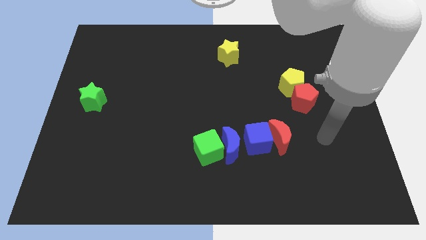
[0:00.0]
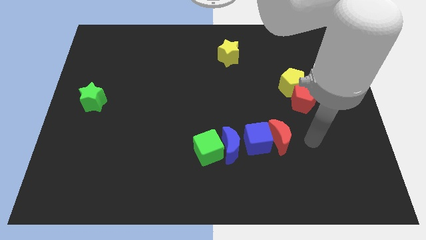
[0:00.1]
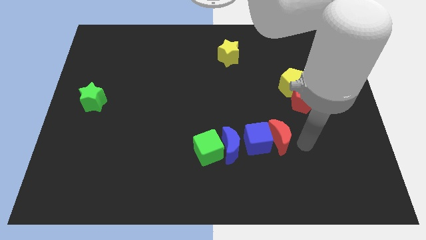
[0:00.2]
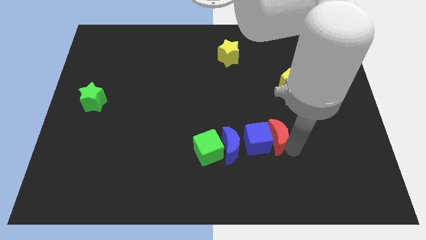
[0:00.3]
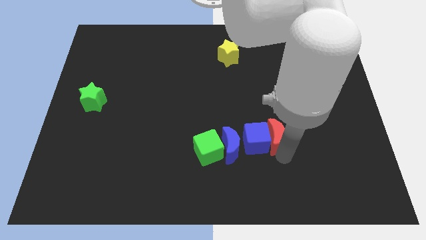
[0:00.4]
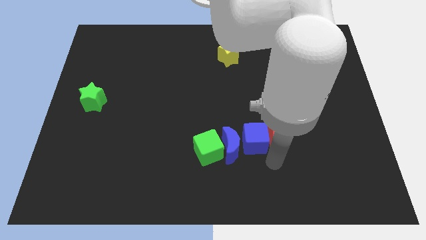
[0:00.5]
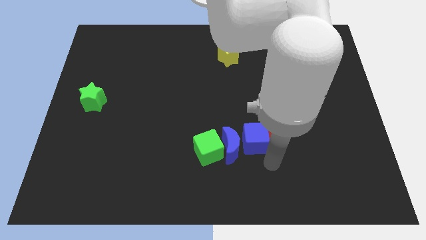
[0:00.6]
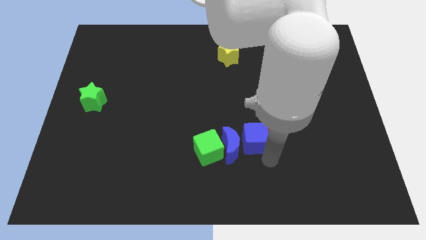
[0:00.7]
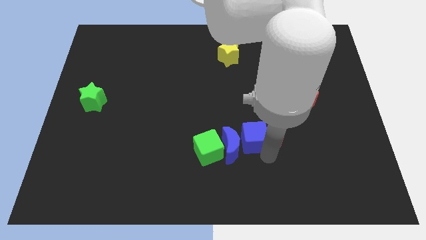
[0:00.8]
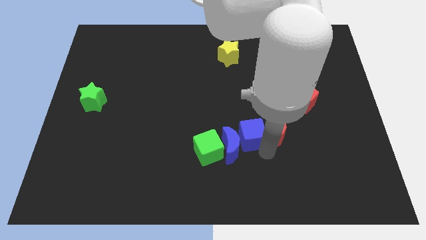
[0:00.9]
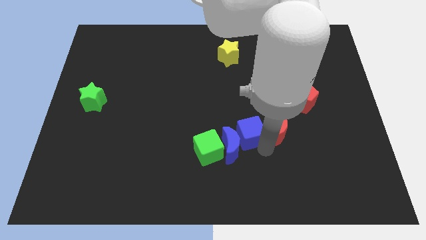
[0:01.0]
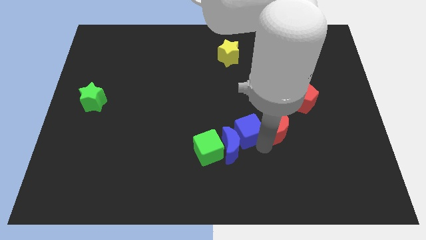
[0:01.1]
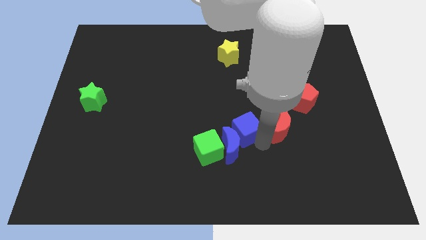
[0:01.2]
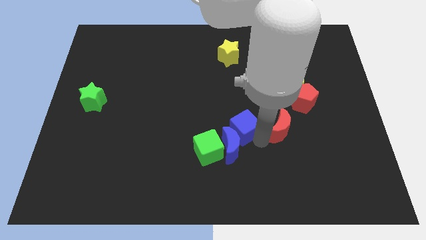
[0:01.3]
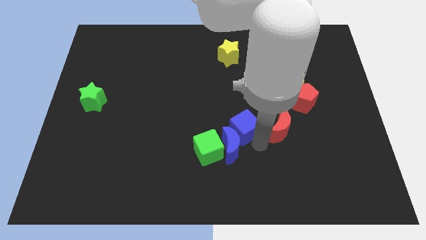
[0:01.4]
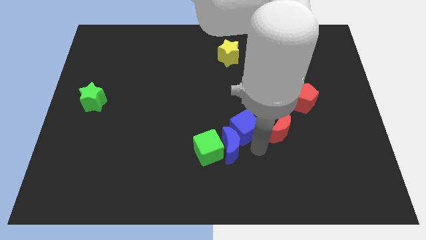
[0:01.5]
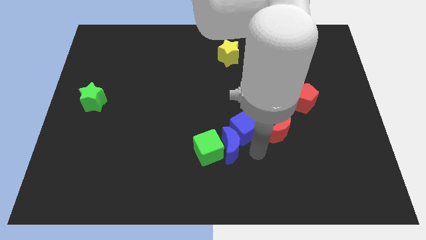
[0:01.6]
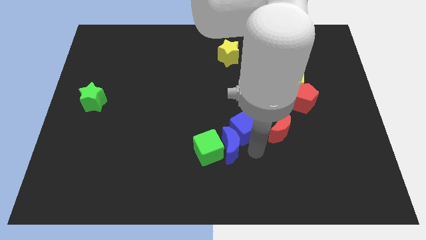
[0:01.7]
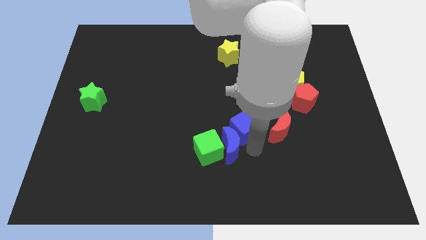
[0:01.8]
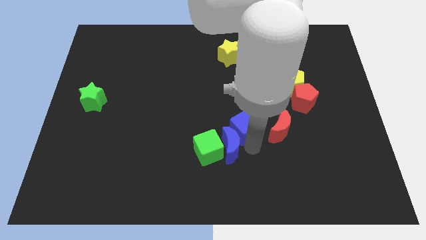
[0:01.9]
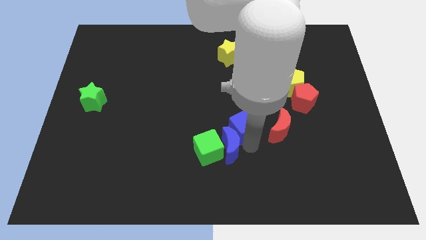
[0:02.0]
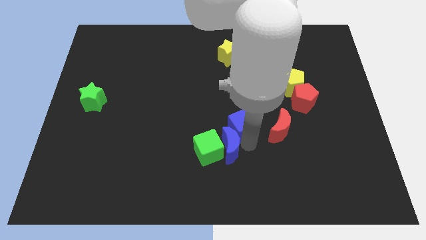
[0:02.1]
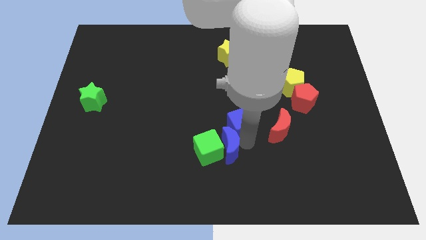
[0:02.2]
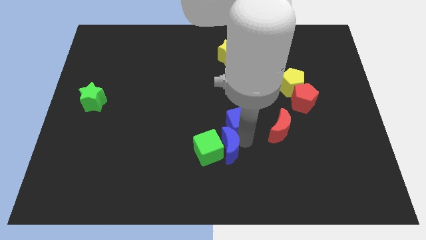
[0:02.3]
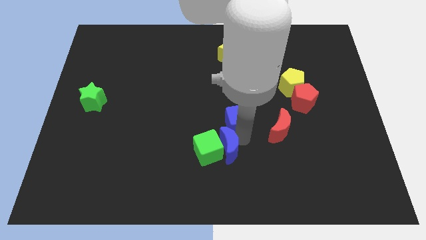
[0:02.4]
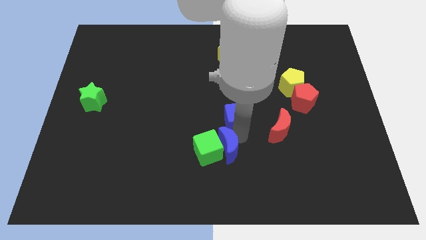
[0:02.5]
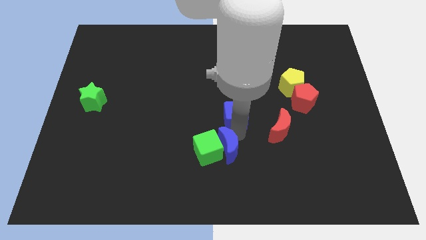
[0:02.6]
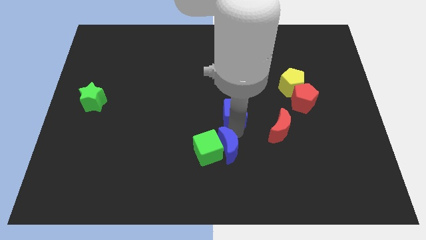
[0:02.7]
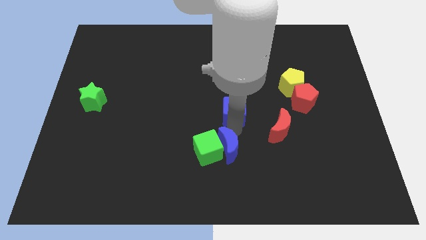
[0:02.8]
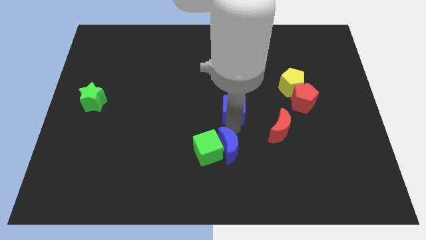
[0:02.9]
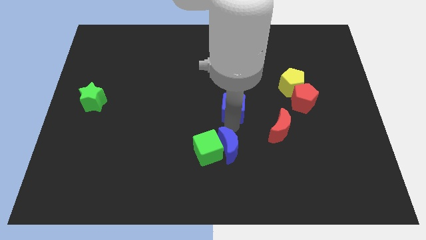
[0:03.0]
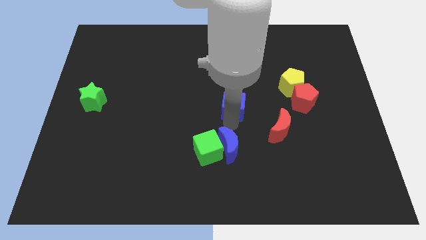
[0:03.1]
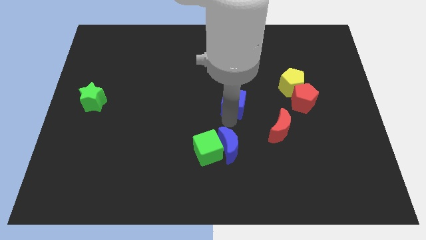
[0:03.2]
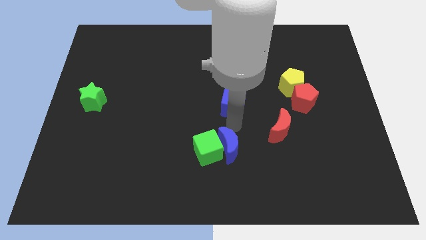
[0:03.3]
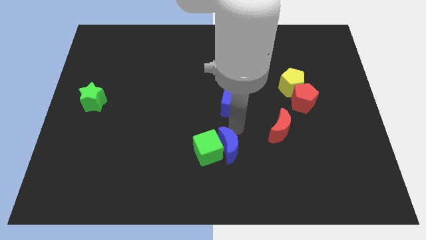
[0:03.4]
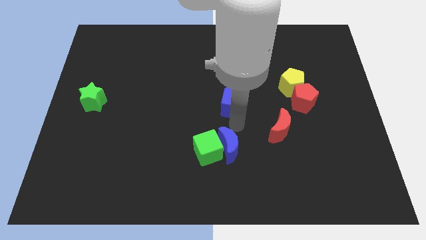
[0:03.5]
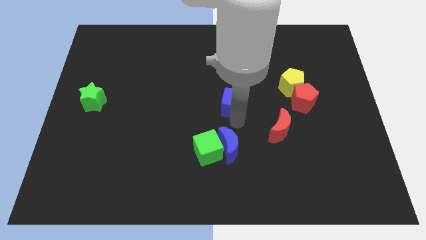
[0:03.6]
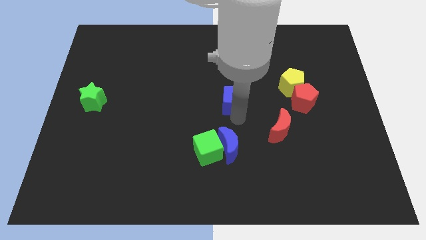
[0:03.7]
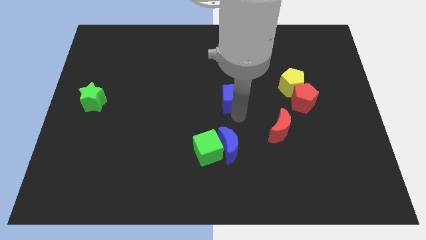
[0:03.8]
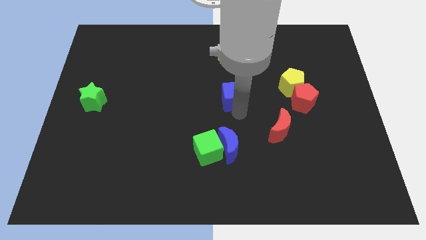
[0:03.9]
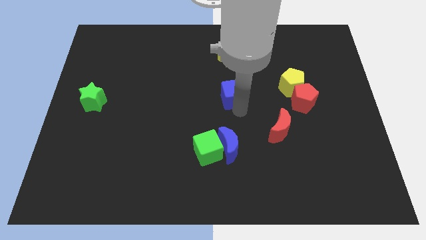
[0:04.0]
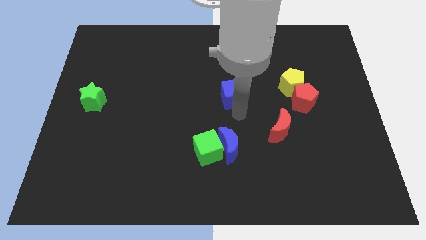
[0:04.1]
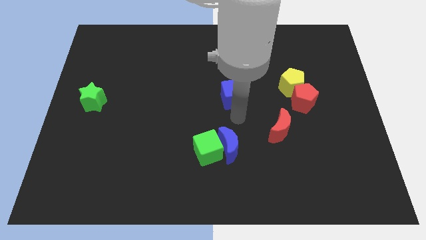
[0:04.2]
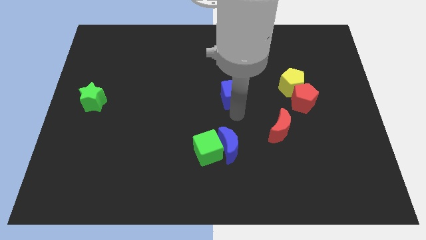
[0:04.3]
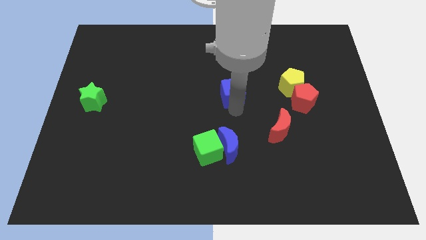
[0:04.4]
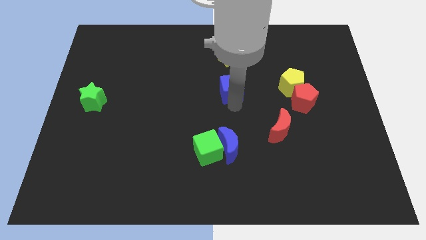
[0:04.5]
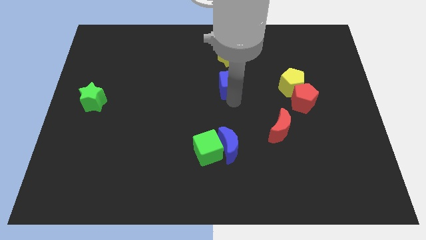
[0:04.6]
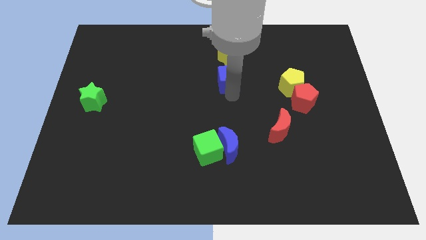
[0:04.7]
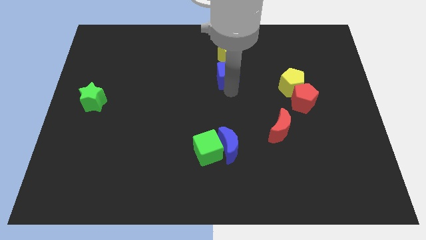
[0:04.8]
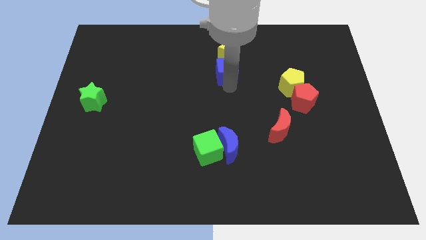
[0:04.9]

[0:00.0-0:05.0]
put the blue cube to the yellow star

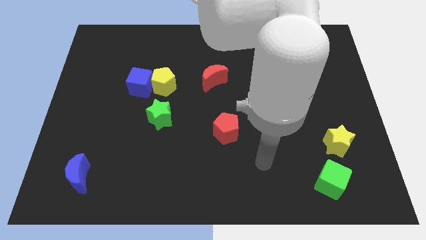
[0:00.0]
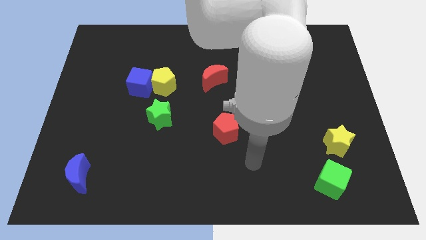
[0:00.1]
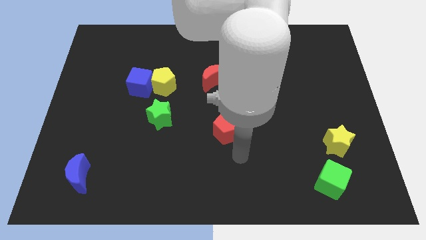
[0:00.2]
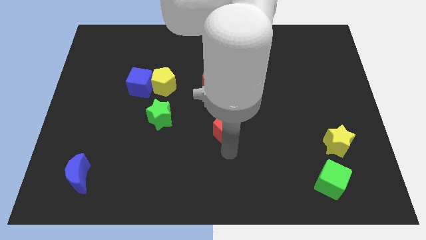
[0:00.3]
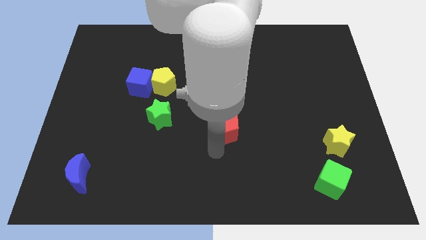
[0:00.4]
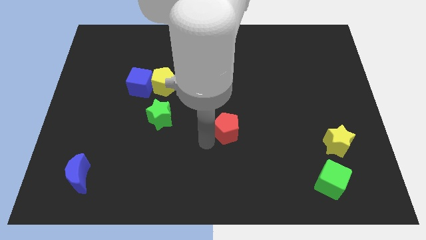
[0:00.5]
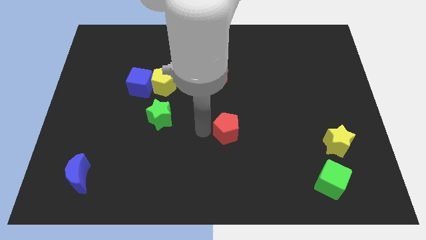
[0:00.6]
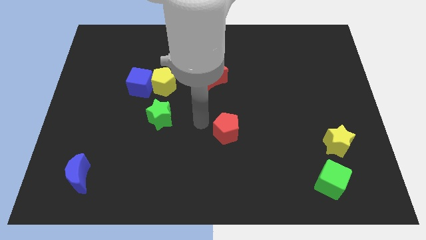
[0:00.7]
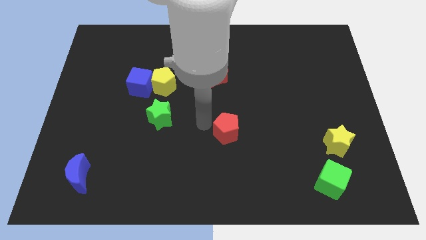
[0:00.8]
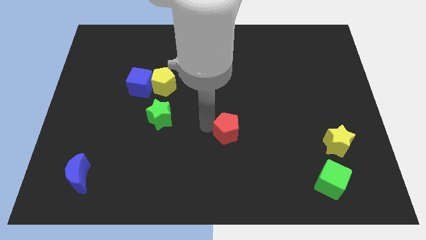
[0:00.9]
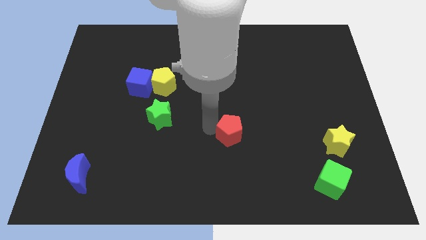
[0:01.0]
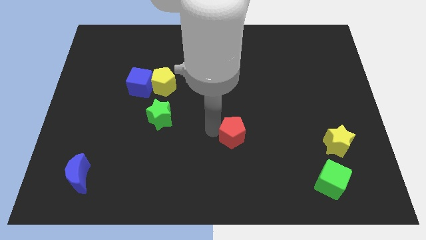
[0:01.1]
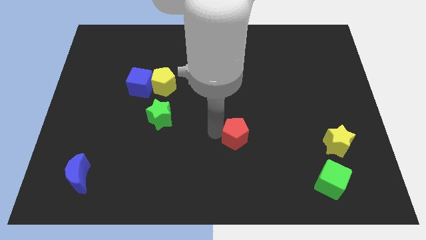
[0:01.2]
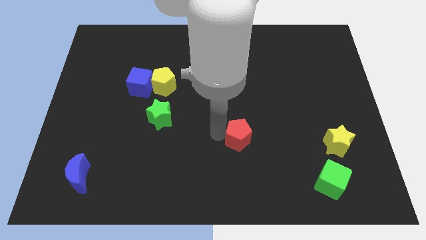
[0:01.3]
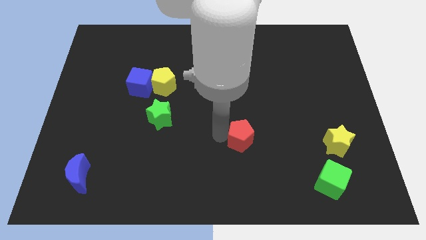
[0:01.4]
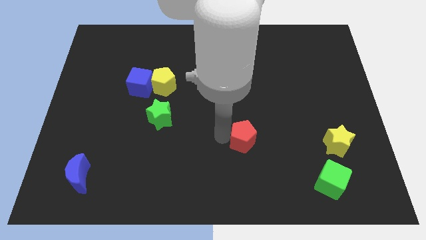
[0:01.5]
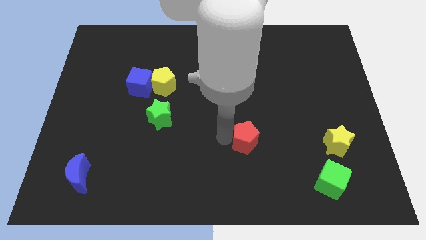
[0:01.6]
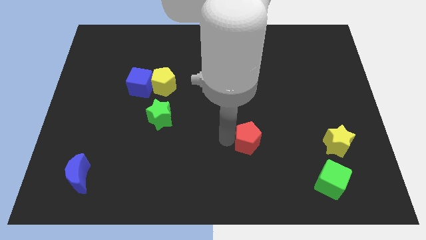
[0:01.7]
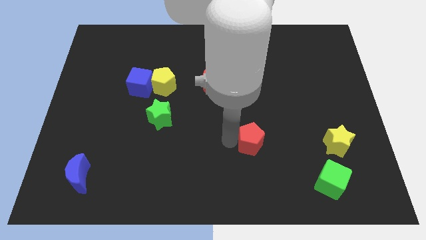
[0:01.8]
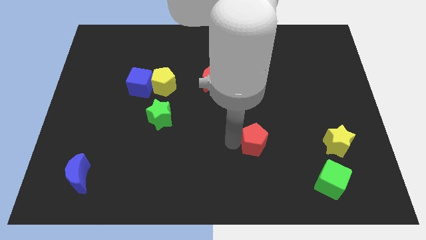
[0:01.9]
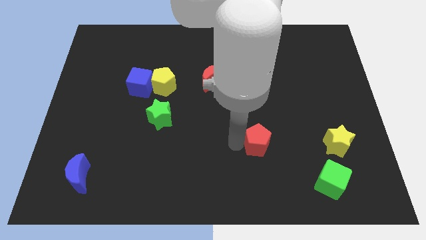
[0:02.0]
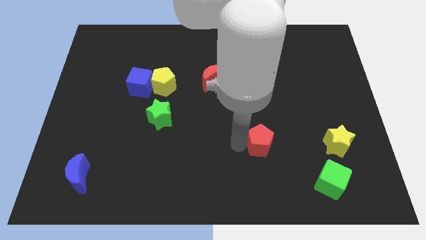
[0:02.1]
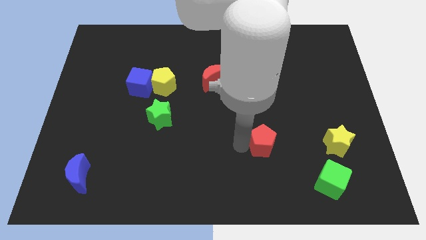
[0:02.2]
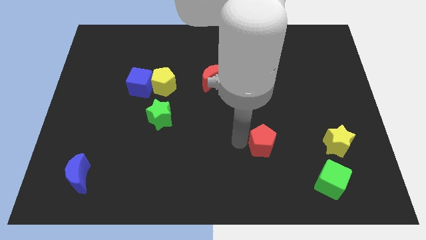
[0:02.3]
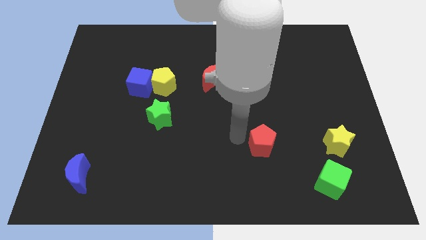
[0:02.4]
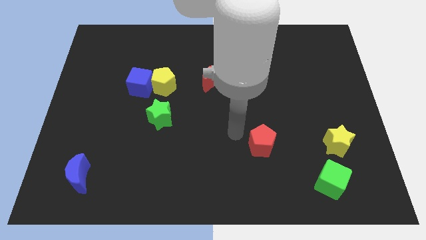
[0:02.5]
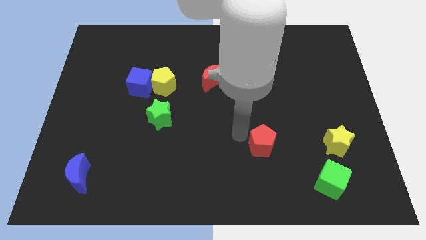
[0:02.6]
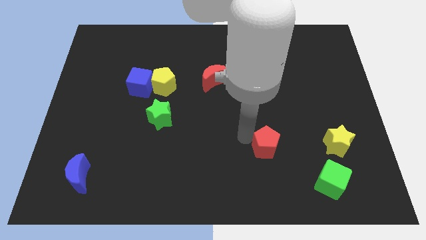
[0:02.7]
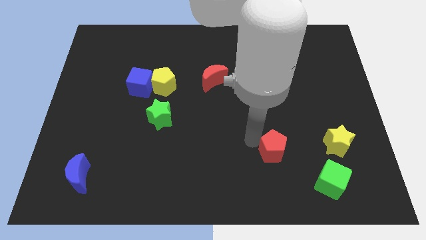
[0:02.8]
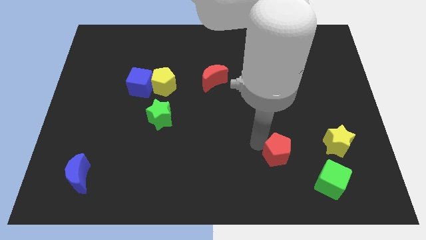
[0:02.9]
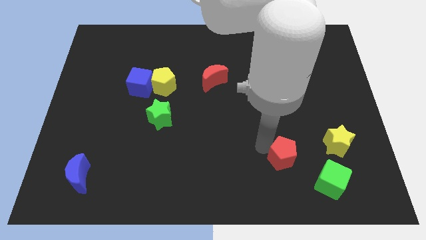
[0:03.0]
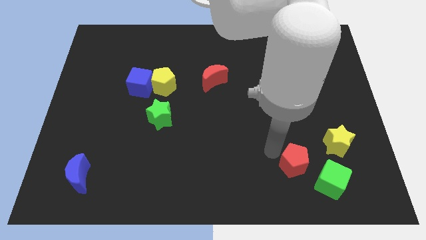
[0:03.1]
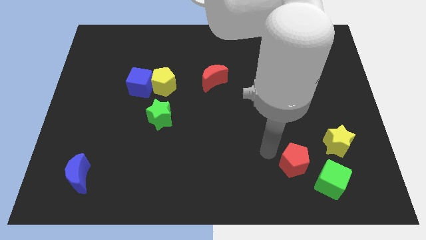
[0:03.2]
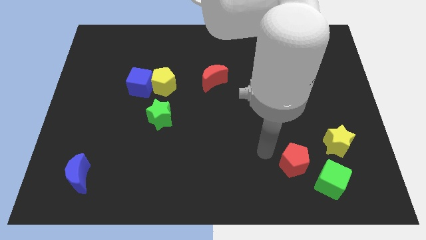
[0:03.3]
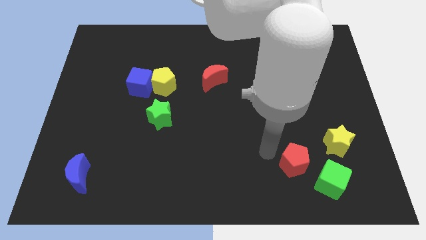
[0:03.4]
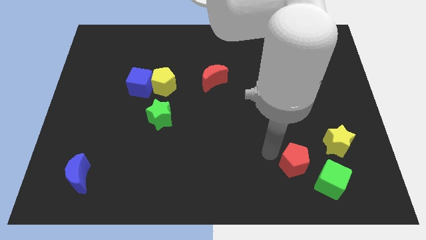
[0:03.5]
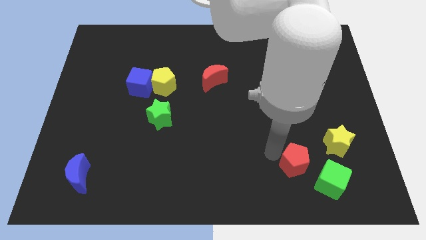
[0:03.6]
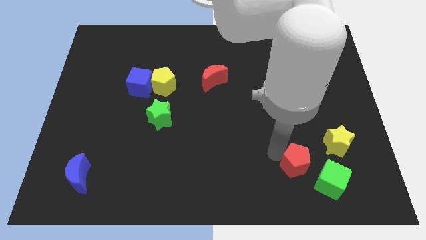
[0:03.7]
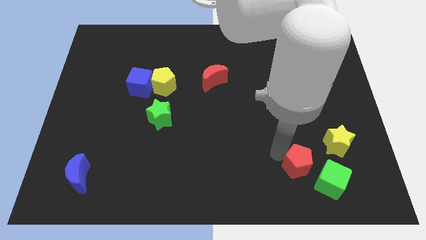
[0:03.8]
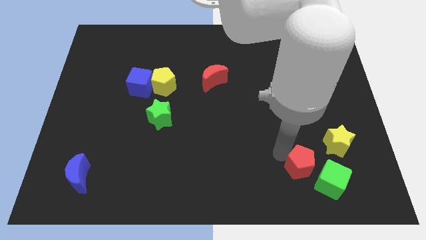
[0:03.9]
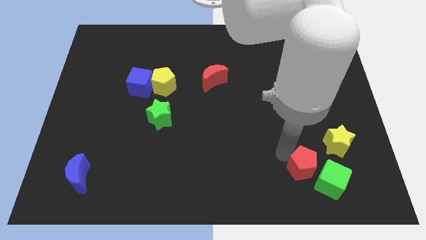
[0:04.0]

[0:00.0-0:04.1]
move the red pentagon next to the green cube
